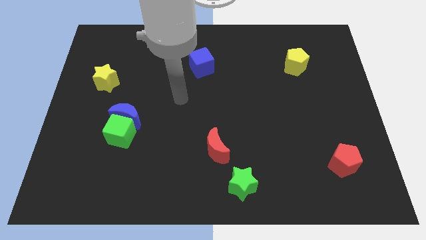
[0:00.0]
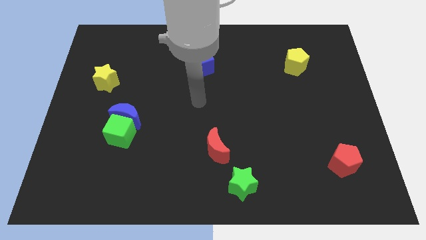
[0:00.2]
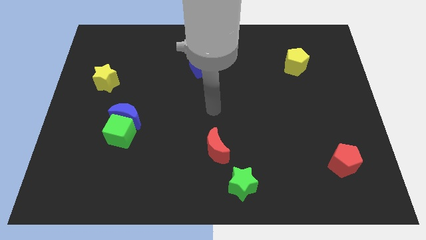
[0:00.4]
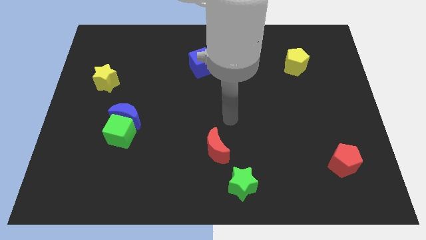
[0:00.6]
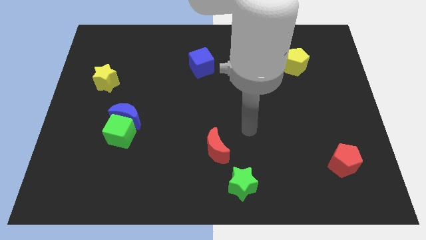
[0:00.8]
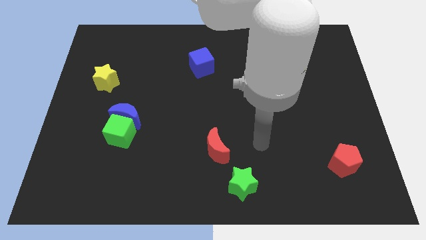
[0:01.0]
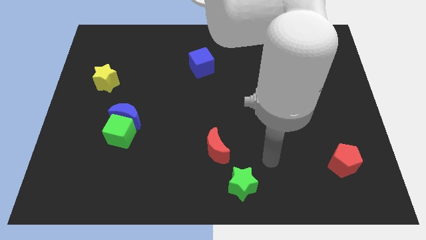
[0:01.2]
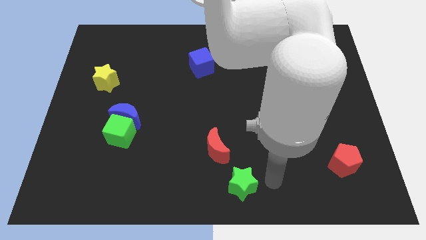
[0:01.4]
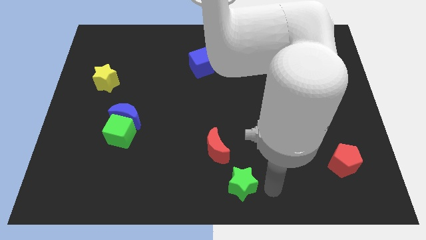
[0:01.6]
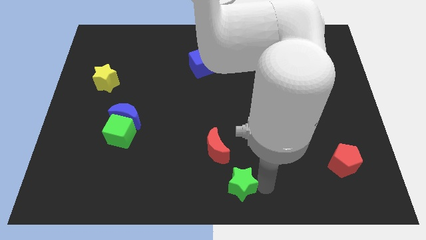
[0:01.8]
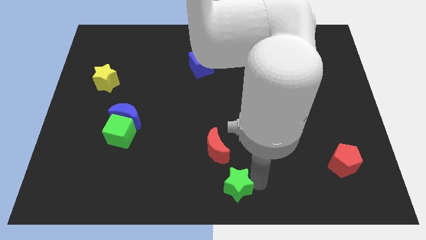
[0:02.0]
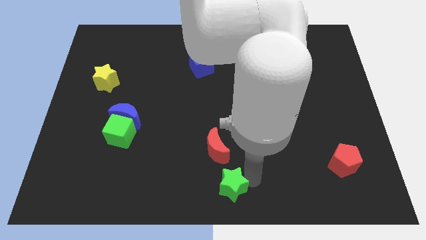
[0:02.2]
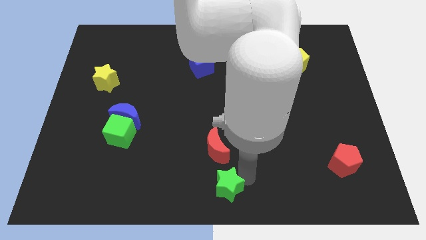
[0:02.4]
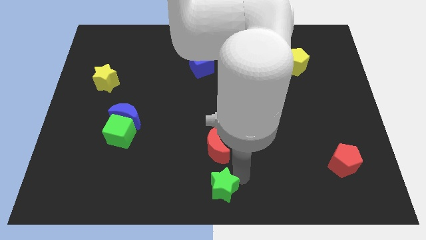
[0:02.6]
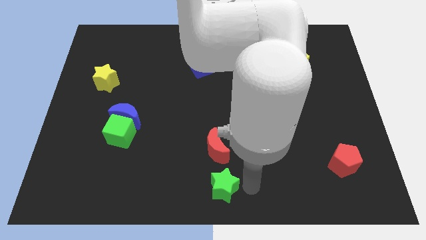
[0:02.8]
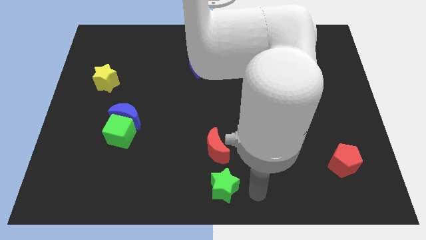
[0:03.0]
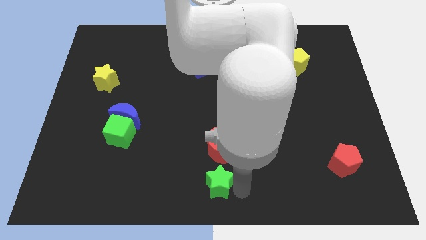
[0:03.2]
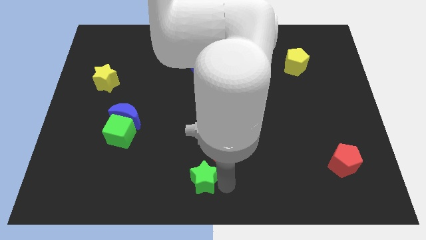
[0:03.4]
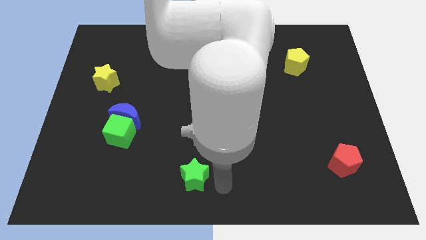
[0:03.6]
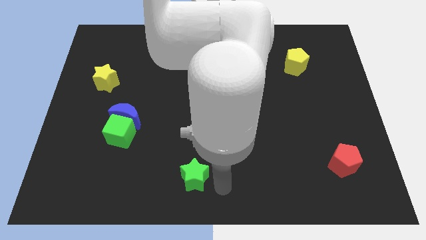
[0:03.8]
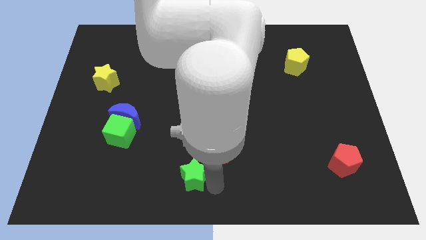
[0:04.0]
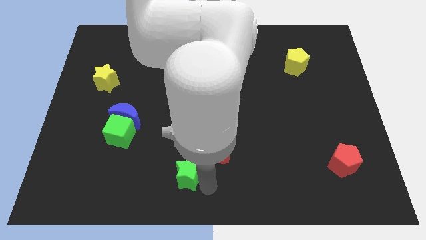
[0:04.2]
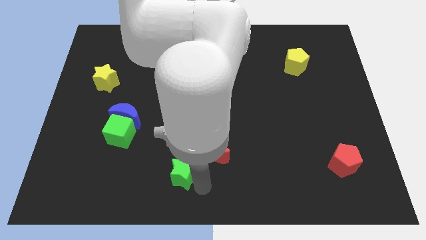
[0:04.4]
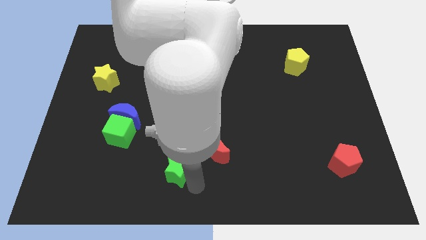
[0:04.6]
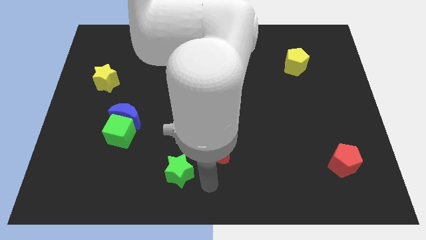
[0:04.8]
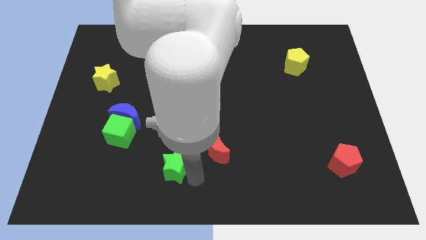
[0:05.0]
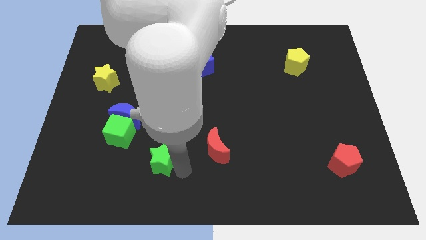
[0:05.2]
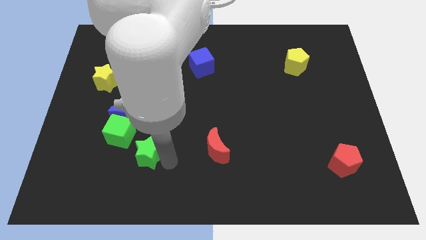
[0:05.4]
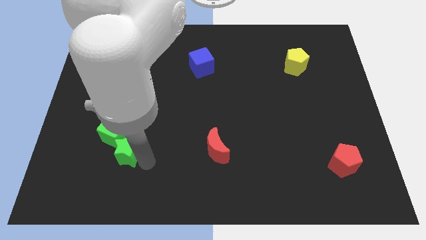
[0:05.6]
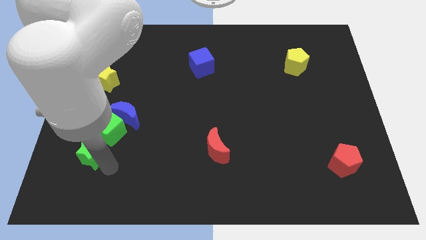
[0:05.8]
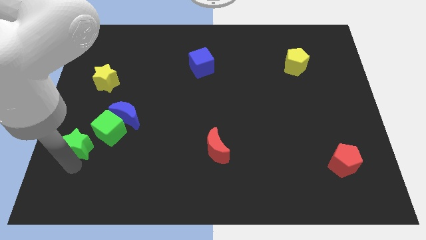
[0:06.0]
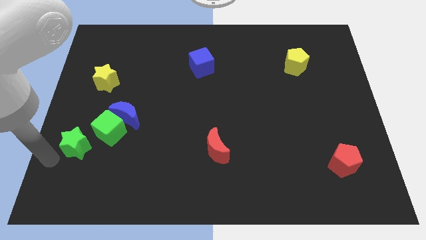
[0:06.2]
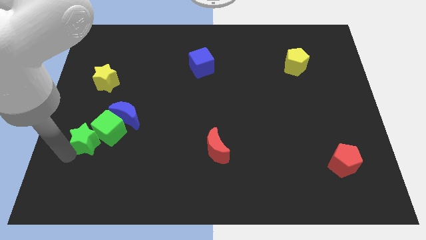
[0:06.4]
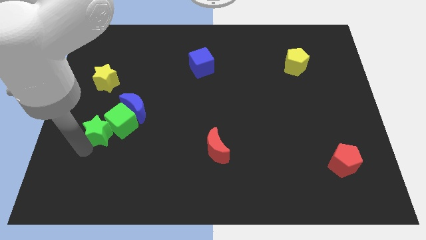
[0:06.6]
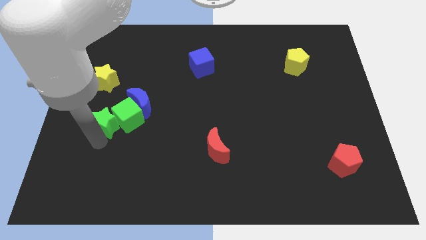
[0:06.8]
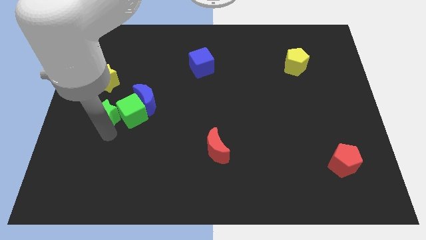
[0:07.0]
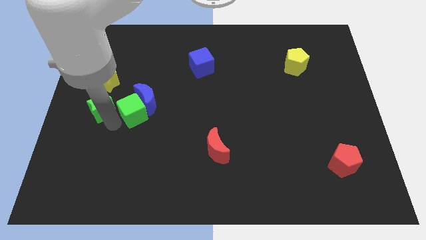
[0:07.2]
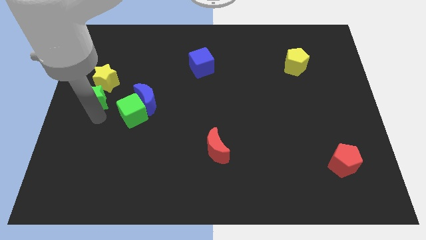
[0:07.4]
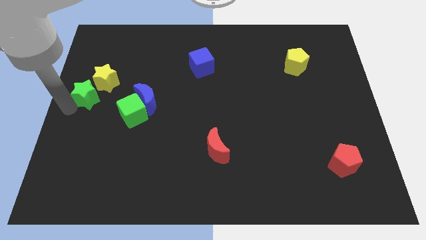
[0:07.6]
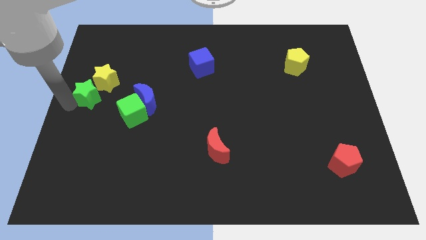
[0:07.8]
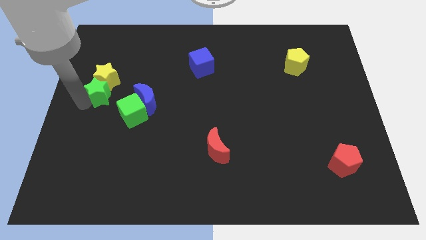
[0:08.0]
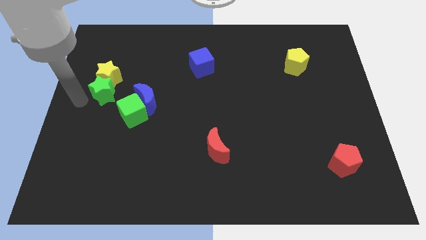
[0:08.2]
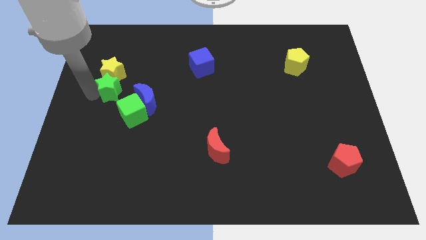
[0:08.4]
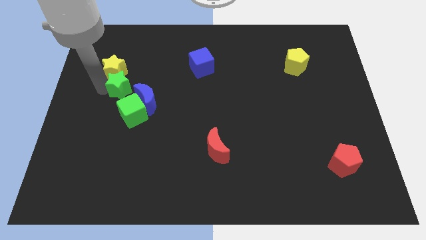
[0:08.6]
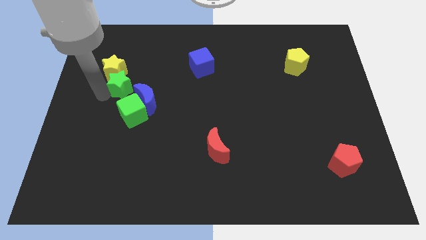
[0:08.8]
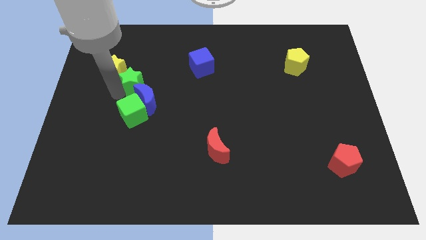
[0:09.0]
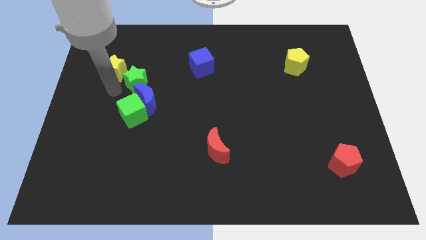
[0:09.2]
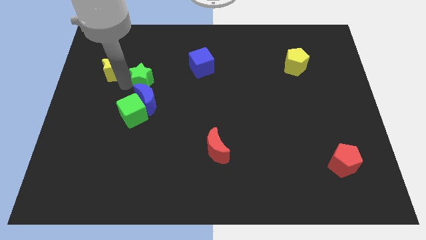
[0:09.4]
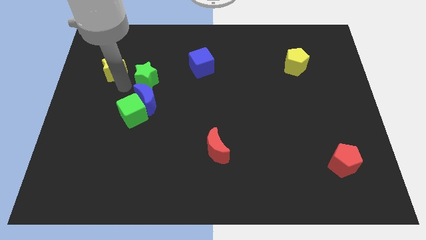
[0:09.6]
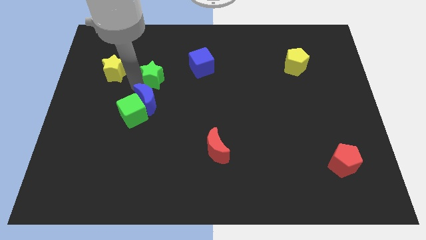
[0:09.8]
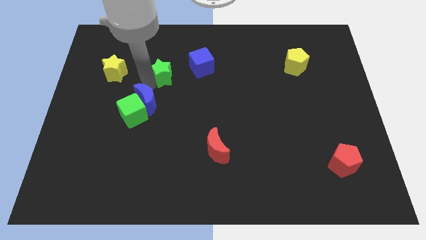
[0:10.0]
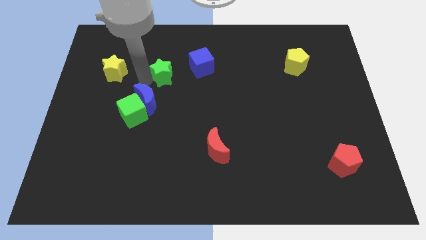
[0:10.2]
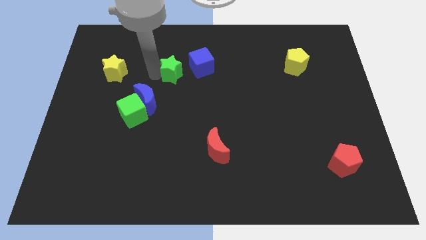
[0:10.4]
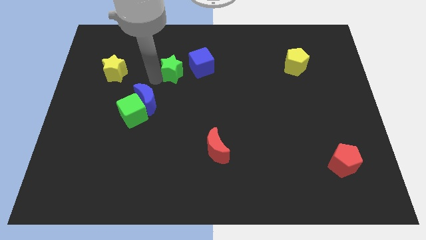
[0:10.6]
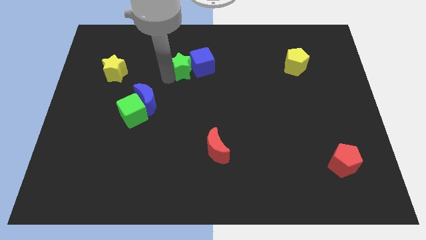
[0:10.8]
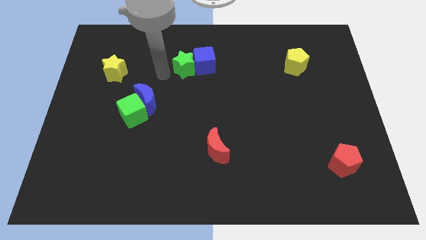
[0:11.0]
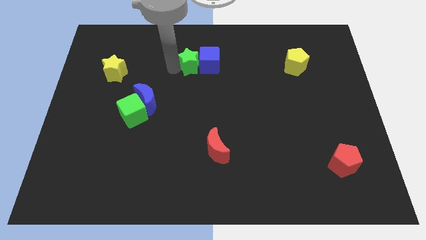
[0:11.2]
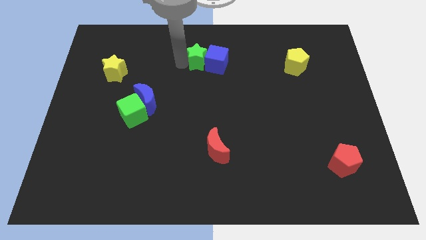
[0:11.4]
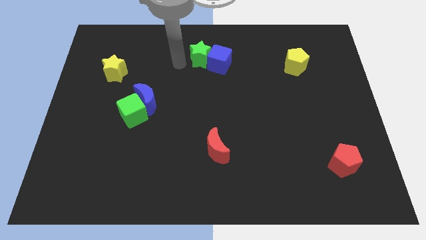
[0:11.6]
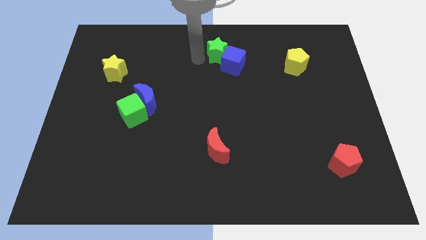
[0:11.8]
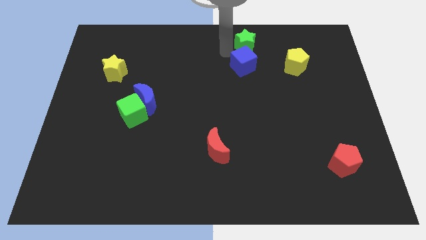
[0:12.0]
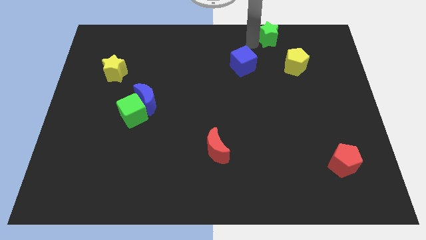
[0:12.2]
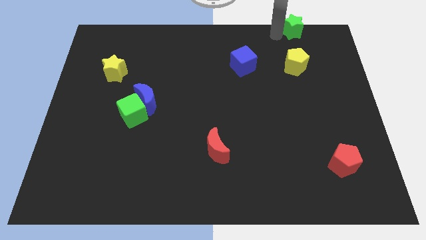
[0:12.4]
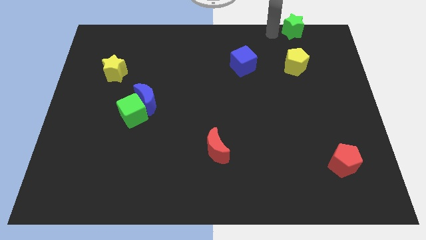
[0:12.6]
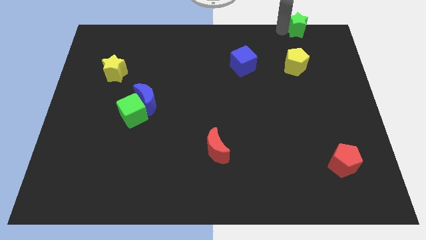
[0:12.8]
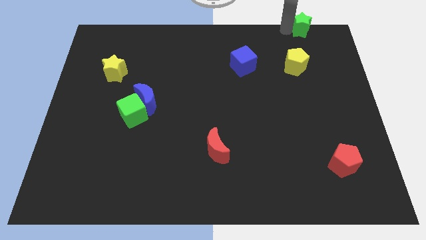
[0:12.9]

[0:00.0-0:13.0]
put the green star to the top right of the board
